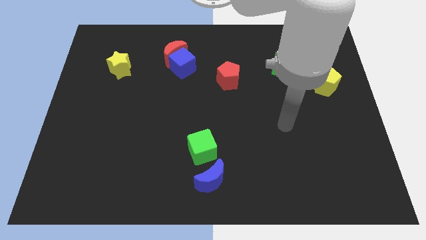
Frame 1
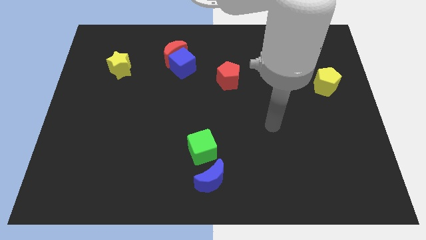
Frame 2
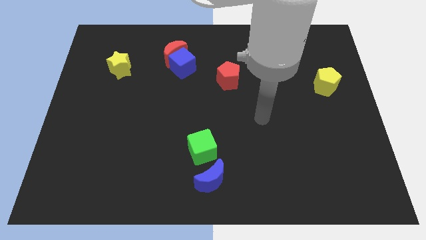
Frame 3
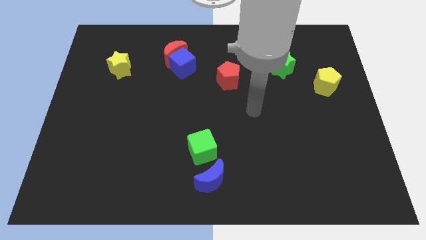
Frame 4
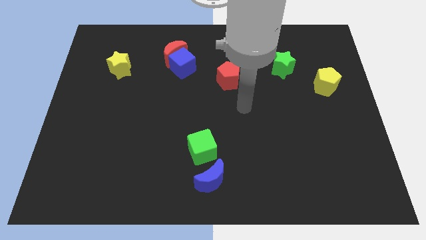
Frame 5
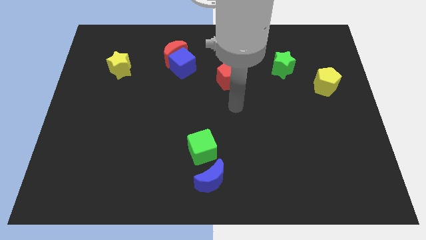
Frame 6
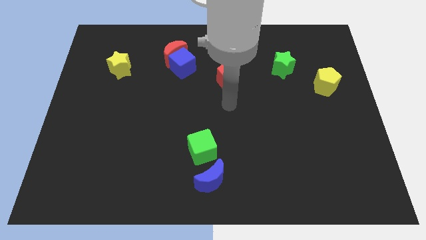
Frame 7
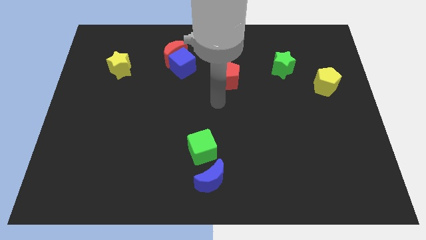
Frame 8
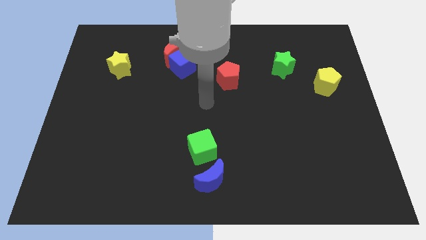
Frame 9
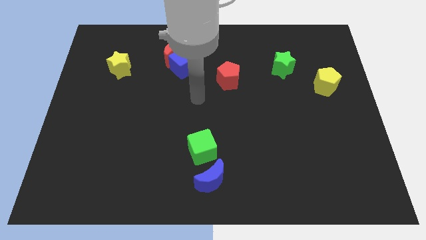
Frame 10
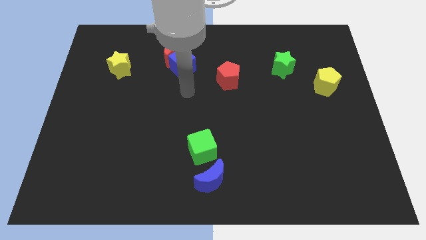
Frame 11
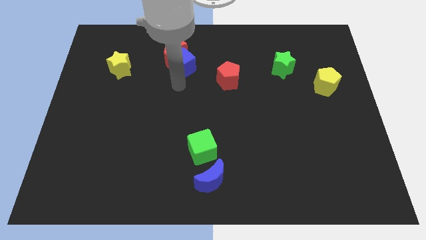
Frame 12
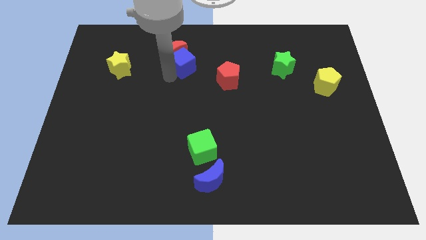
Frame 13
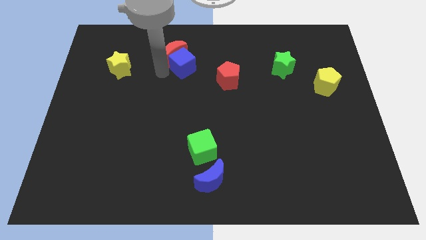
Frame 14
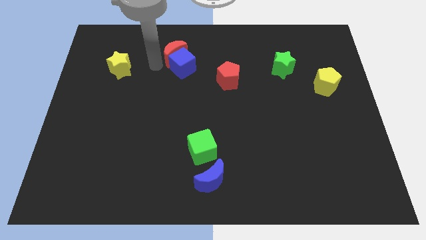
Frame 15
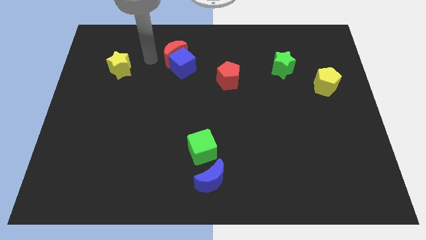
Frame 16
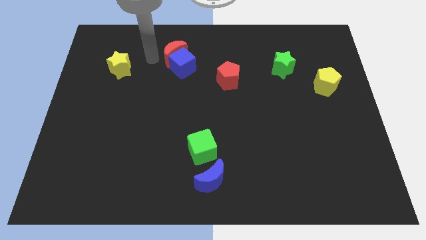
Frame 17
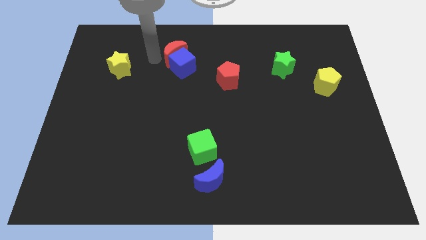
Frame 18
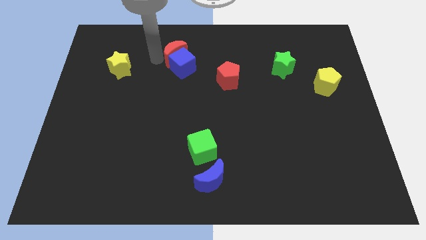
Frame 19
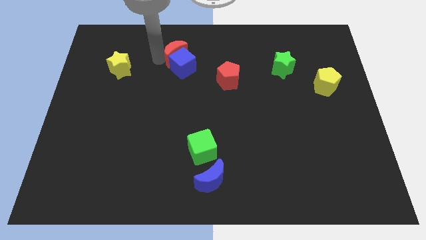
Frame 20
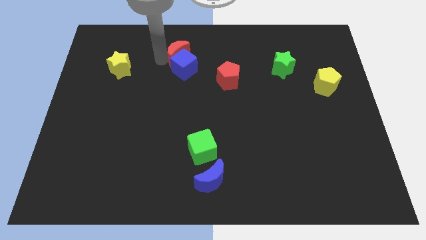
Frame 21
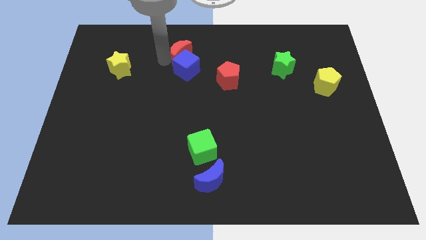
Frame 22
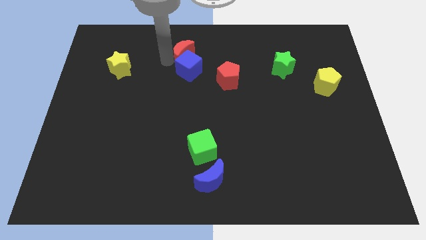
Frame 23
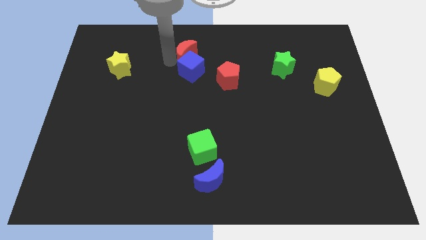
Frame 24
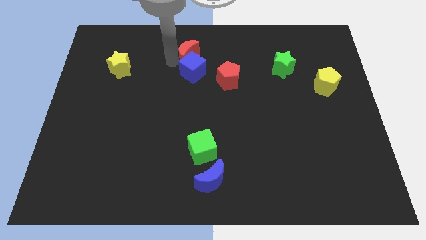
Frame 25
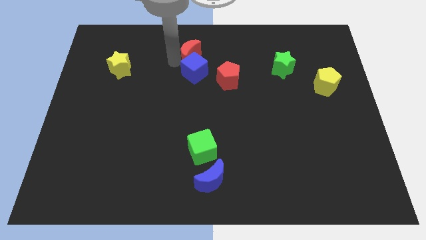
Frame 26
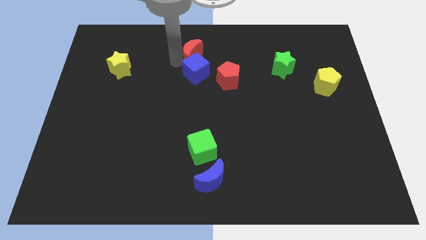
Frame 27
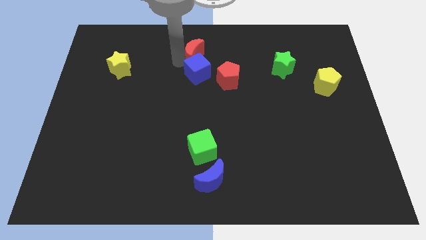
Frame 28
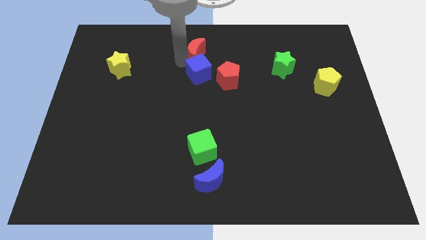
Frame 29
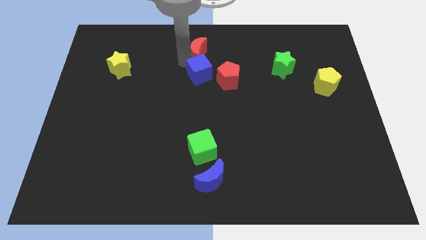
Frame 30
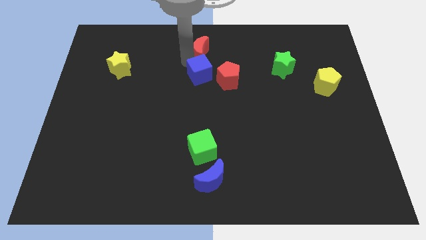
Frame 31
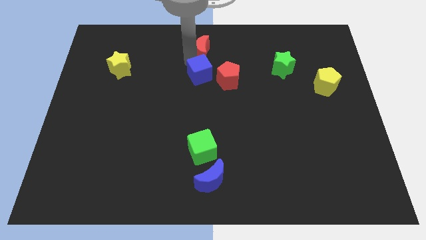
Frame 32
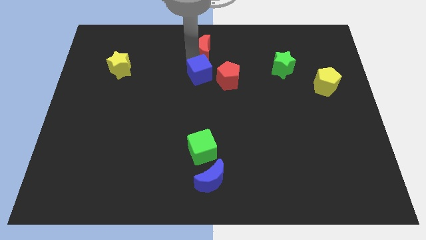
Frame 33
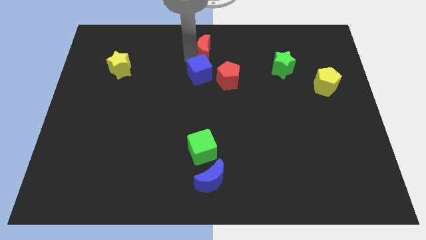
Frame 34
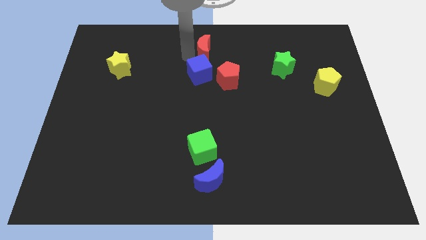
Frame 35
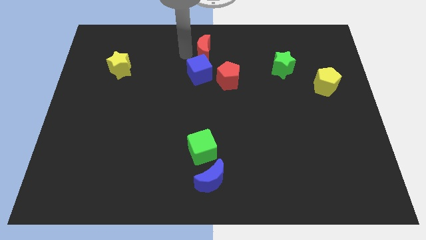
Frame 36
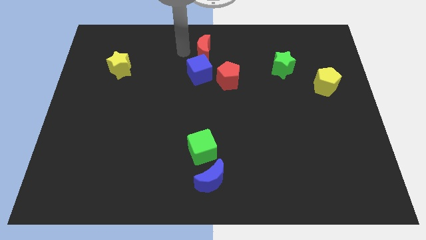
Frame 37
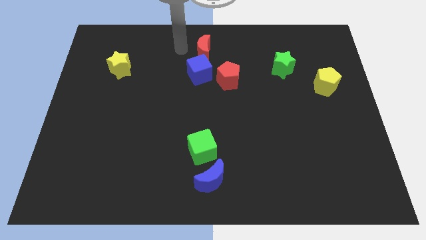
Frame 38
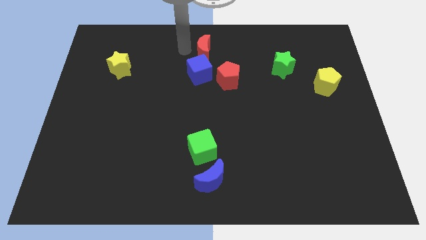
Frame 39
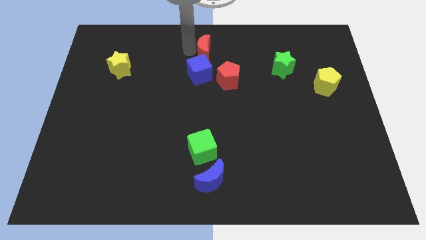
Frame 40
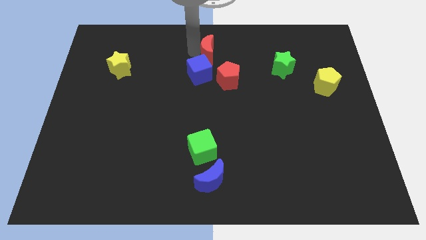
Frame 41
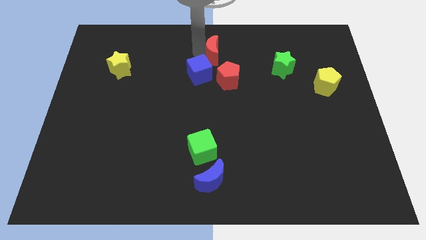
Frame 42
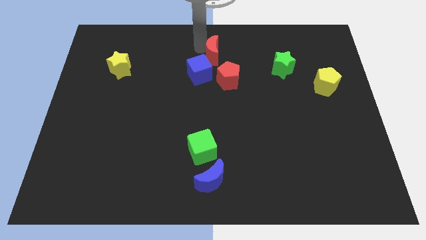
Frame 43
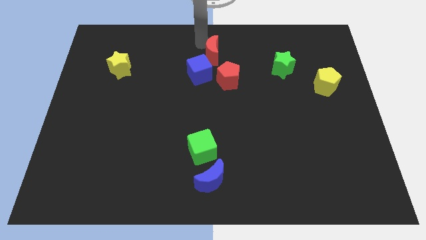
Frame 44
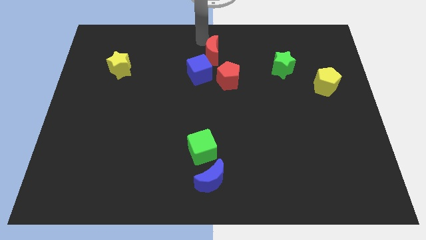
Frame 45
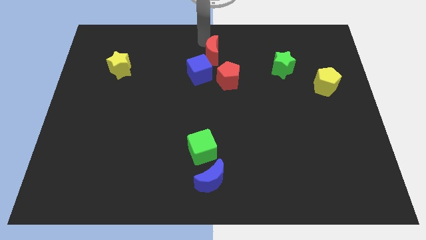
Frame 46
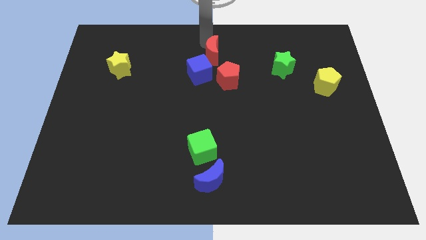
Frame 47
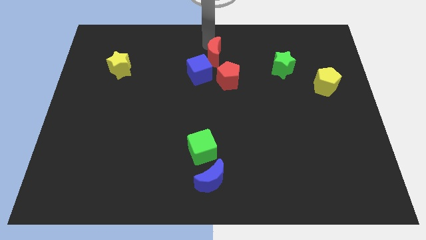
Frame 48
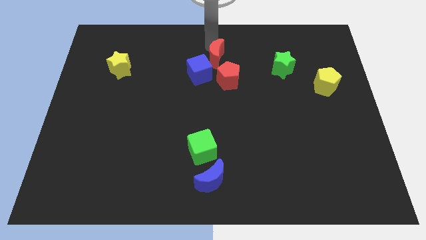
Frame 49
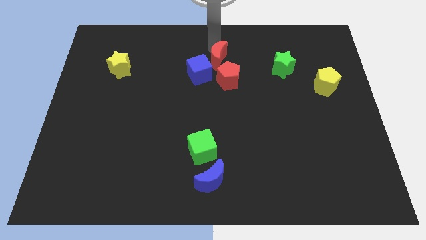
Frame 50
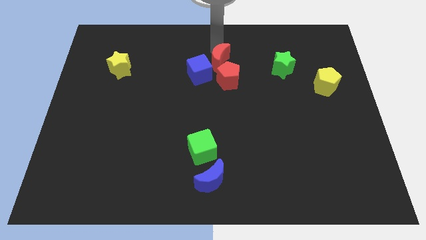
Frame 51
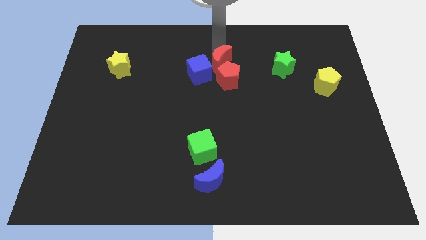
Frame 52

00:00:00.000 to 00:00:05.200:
push the red moon next to the red pentagon

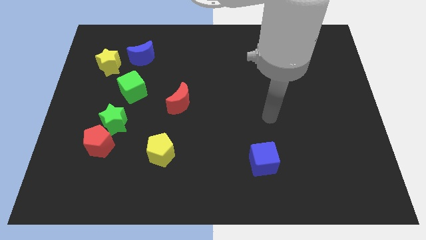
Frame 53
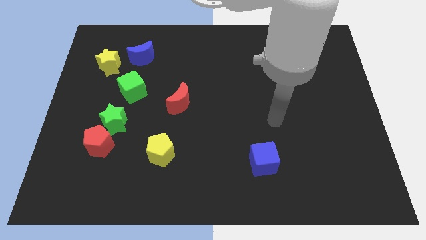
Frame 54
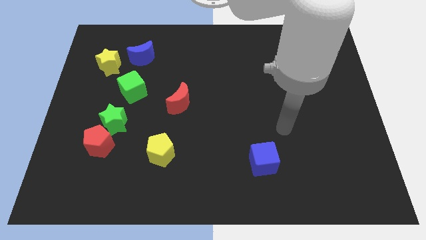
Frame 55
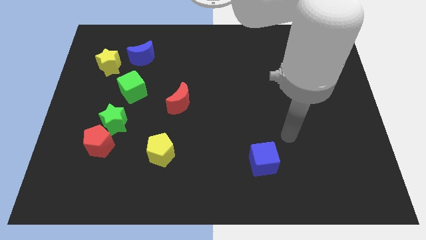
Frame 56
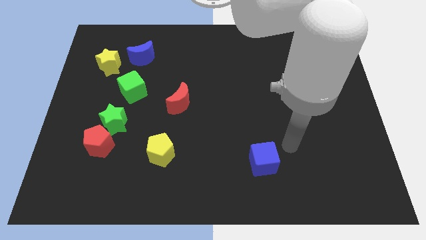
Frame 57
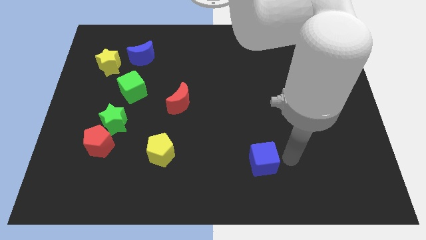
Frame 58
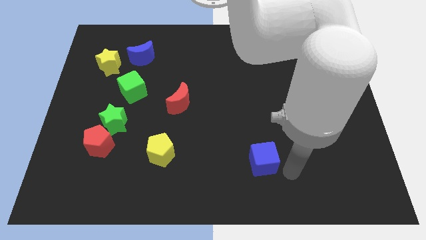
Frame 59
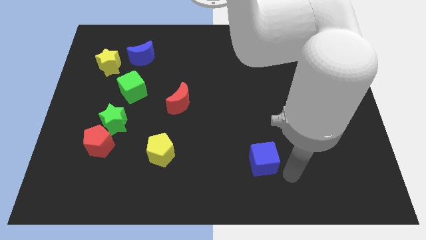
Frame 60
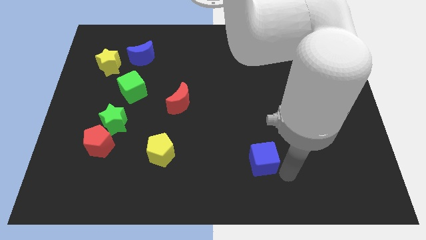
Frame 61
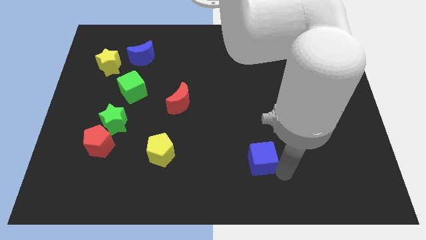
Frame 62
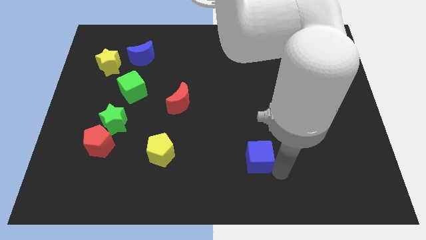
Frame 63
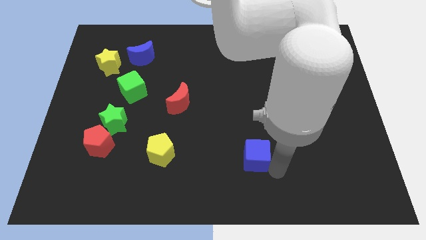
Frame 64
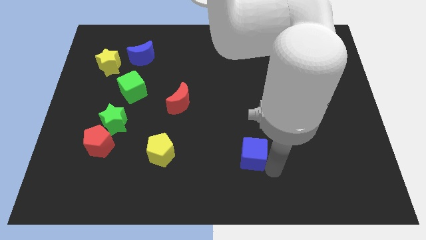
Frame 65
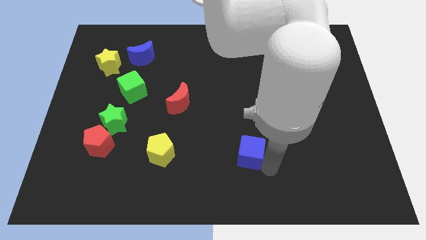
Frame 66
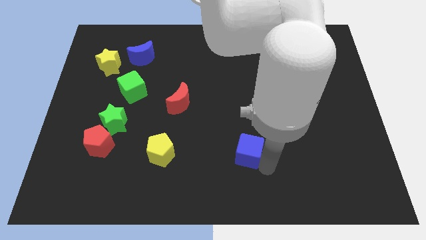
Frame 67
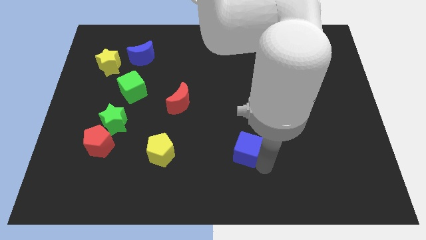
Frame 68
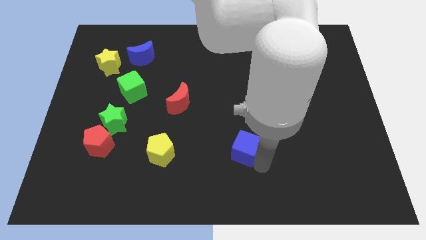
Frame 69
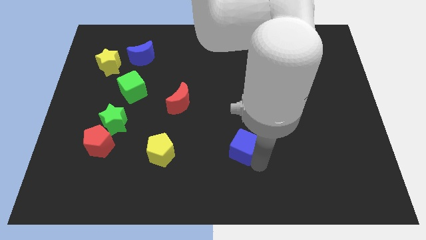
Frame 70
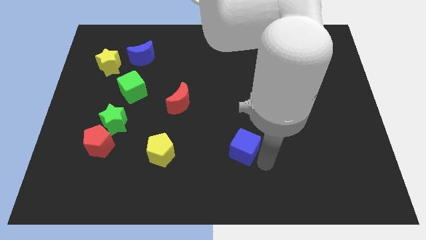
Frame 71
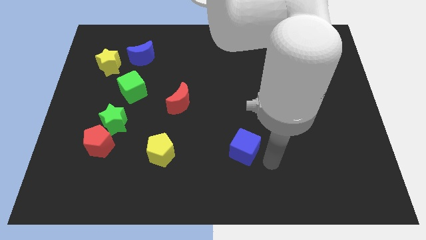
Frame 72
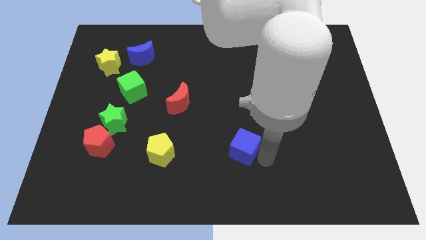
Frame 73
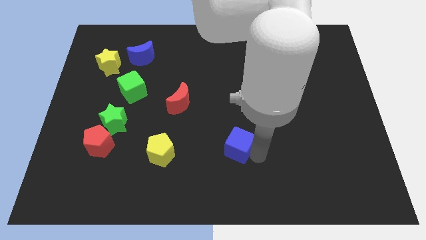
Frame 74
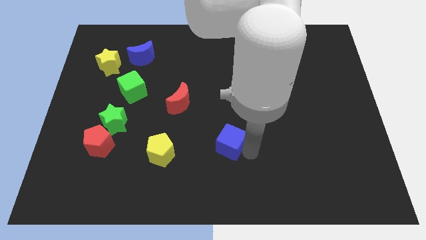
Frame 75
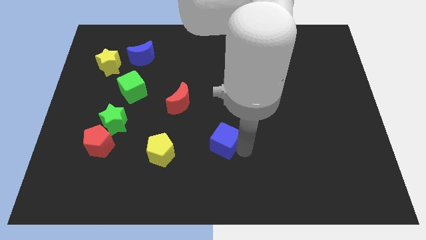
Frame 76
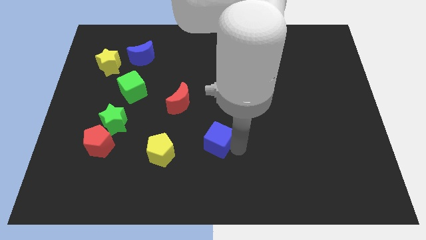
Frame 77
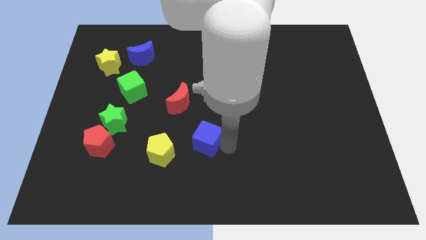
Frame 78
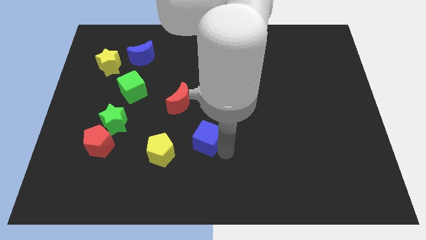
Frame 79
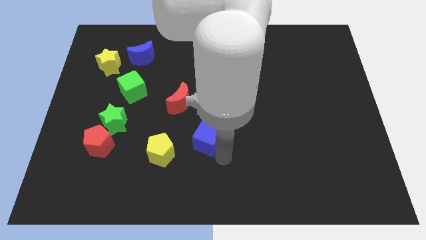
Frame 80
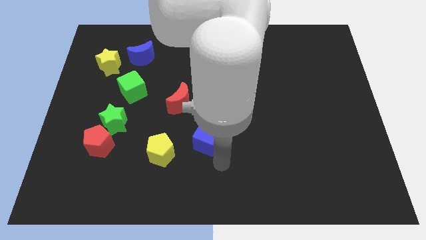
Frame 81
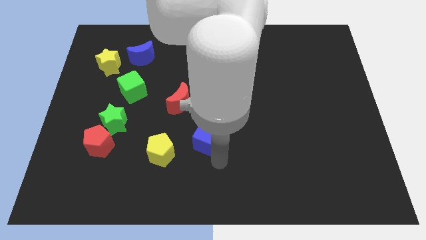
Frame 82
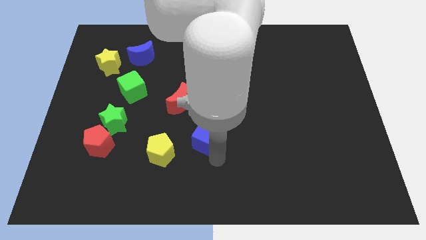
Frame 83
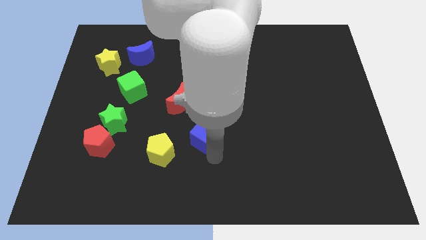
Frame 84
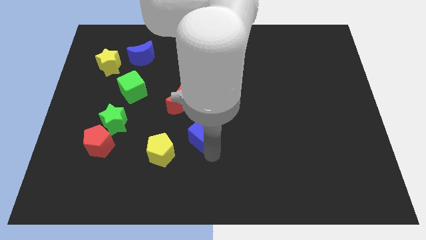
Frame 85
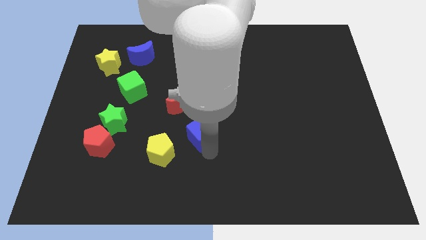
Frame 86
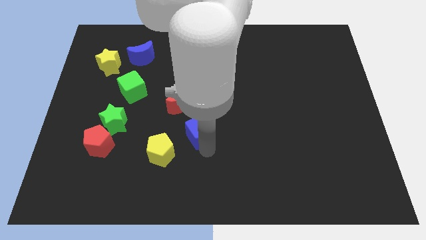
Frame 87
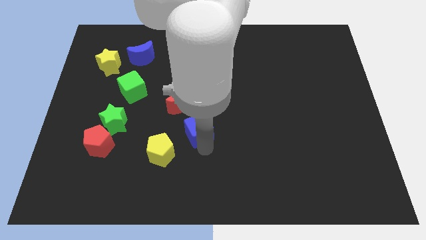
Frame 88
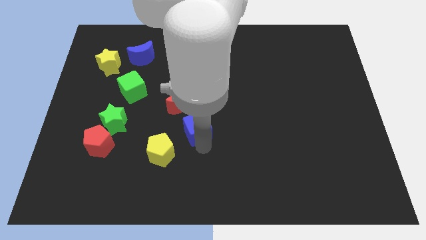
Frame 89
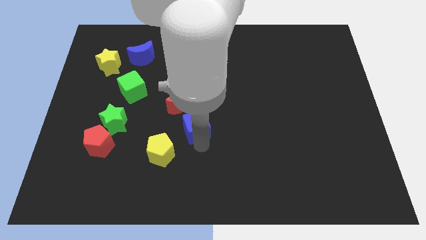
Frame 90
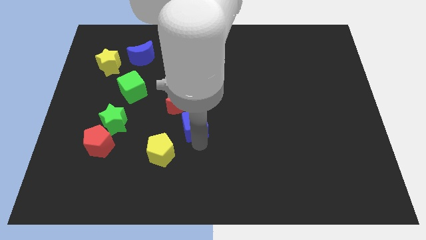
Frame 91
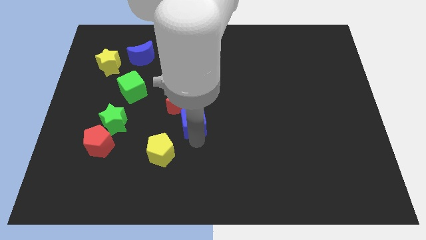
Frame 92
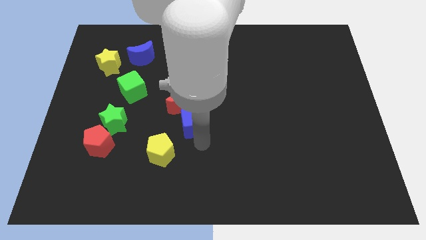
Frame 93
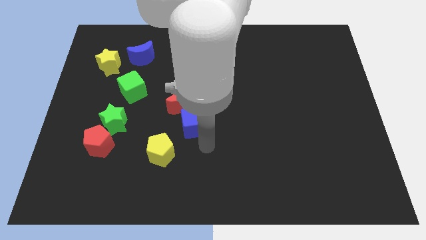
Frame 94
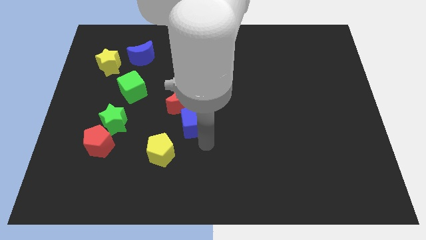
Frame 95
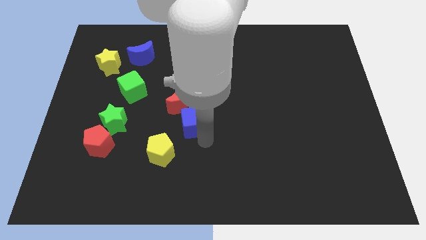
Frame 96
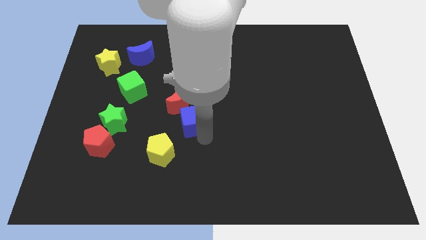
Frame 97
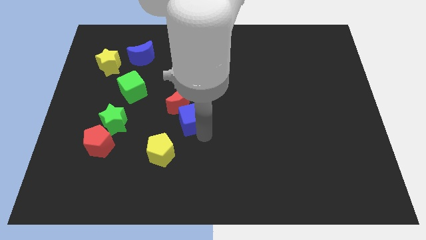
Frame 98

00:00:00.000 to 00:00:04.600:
push the blue cube close to the red moon
